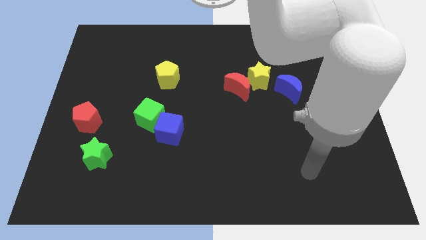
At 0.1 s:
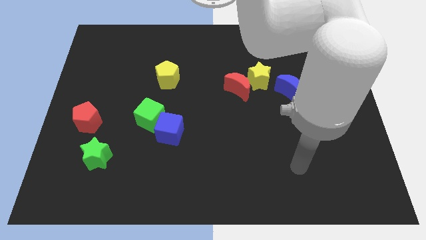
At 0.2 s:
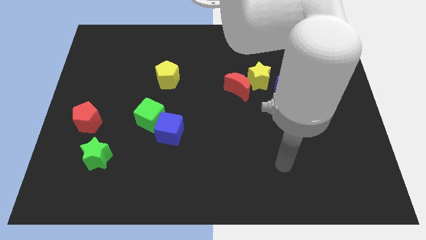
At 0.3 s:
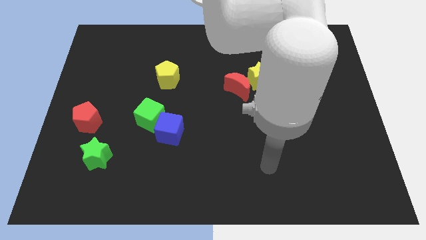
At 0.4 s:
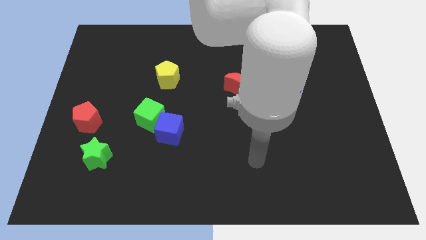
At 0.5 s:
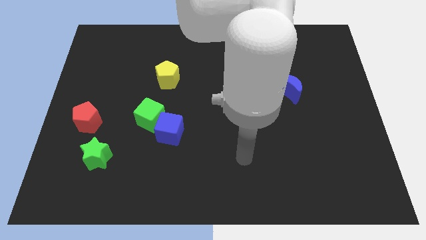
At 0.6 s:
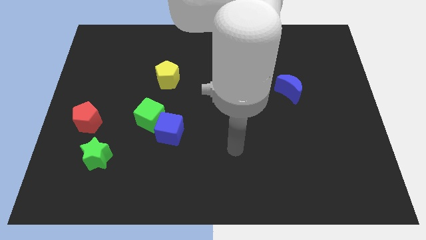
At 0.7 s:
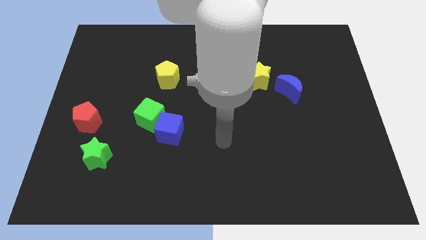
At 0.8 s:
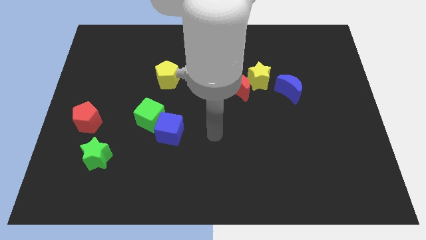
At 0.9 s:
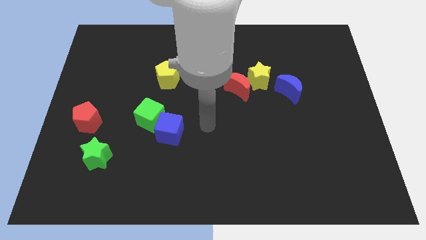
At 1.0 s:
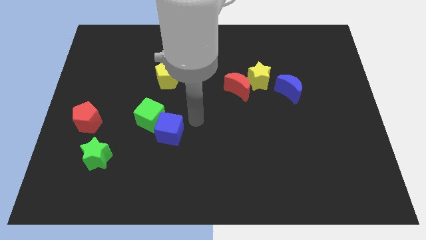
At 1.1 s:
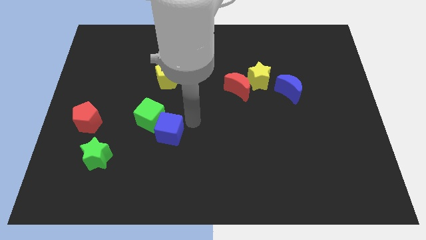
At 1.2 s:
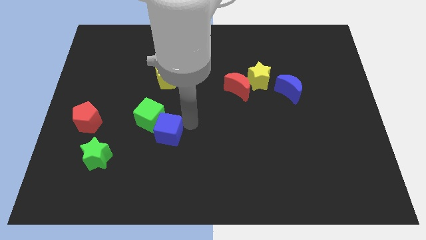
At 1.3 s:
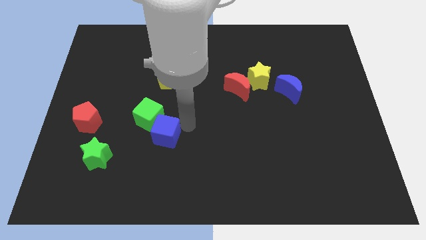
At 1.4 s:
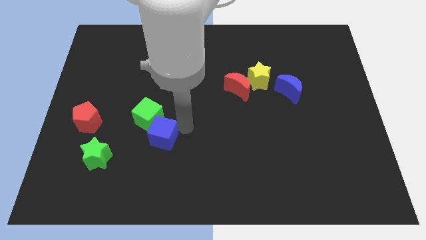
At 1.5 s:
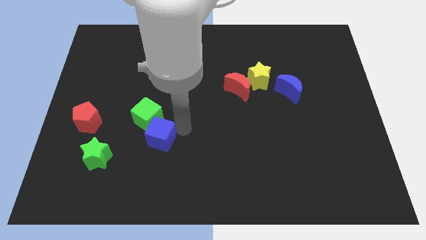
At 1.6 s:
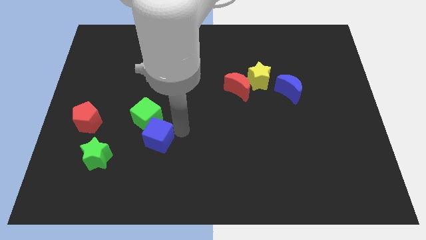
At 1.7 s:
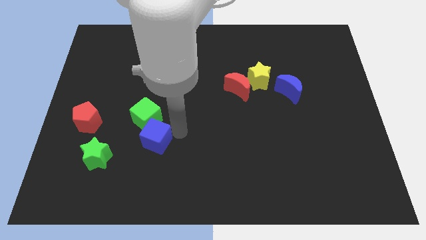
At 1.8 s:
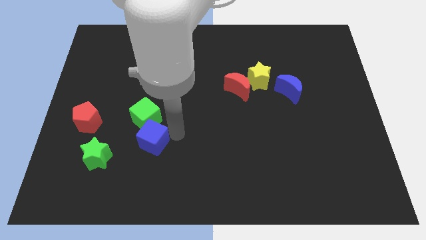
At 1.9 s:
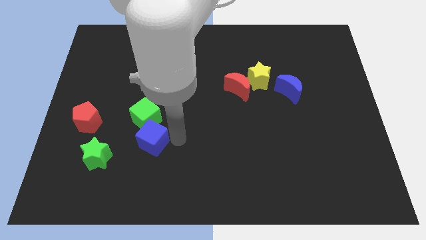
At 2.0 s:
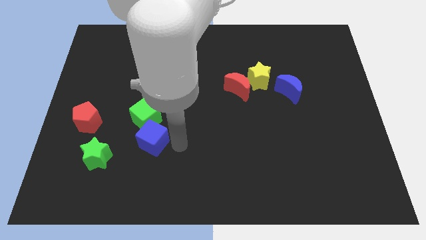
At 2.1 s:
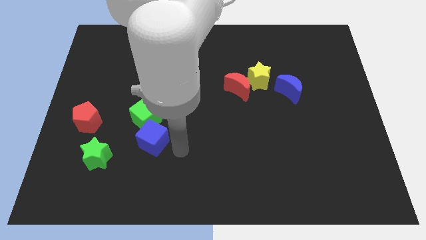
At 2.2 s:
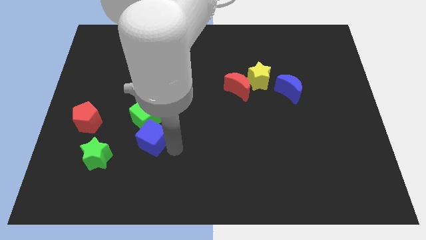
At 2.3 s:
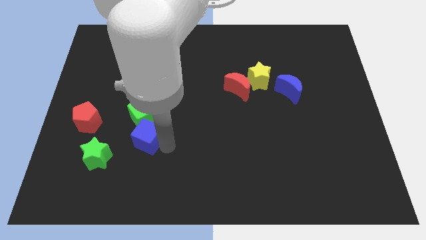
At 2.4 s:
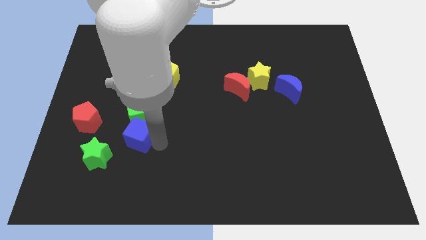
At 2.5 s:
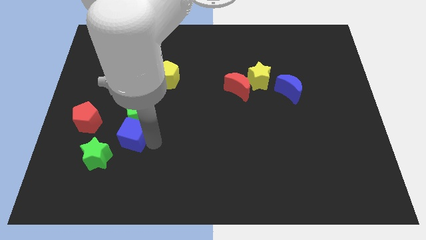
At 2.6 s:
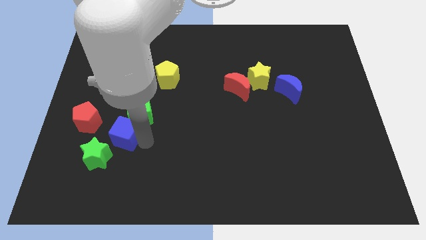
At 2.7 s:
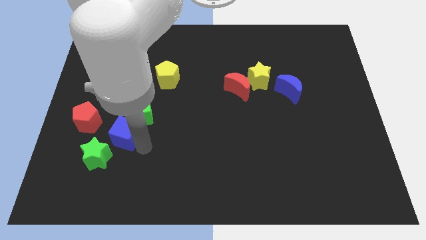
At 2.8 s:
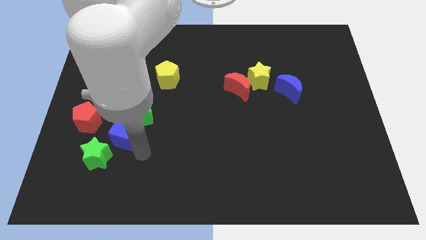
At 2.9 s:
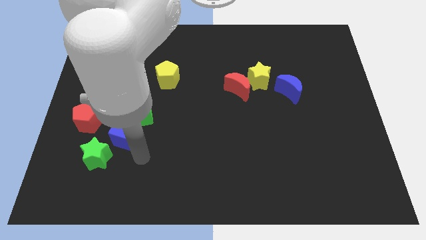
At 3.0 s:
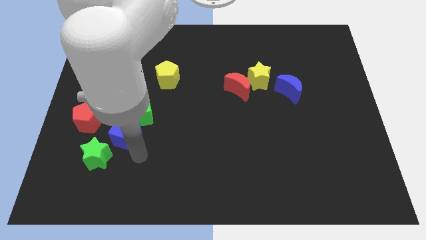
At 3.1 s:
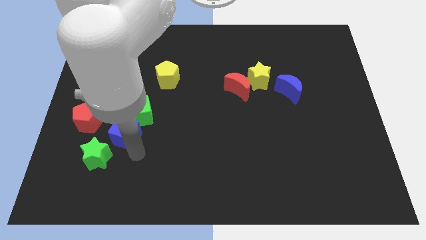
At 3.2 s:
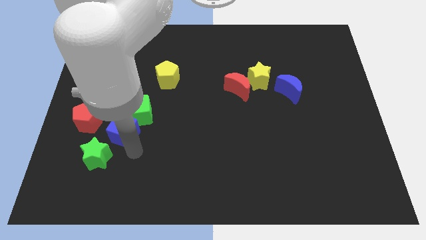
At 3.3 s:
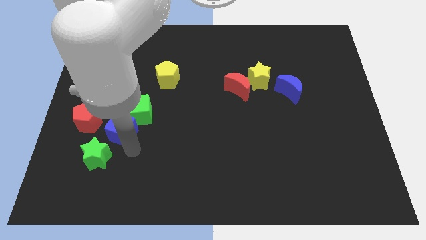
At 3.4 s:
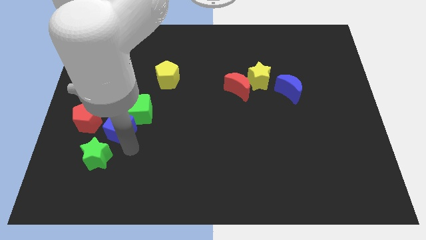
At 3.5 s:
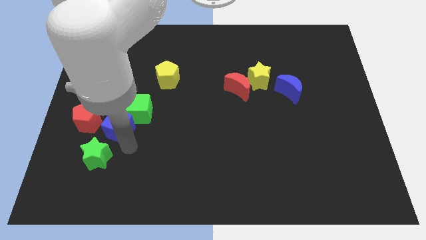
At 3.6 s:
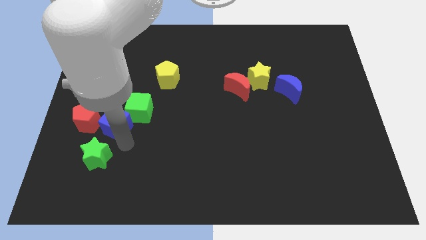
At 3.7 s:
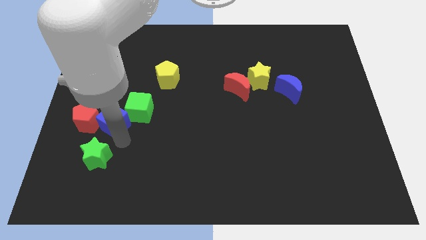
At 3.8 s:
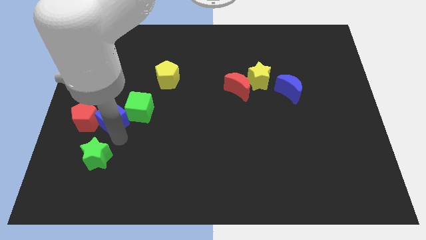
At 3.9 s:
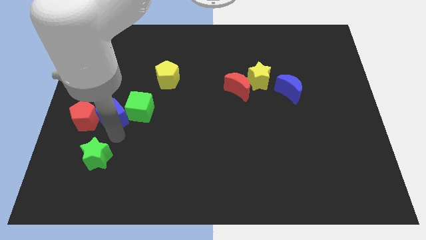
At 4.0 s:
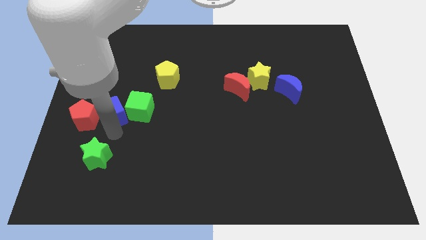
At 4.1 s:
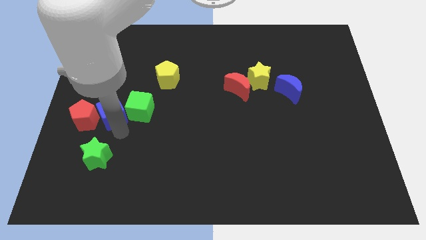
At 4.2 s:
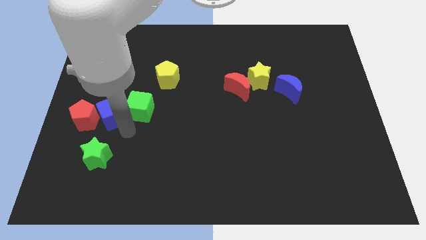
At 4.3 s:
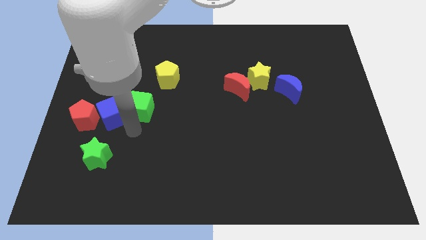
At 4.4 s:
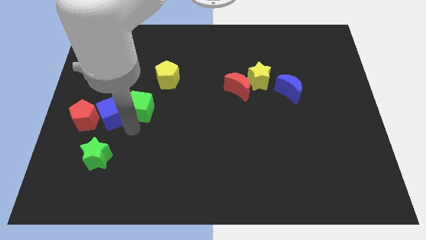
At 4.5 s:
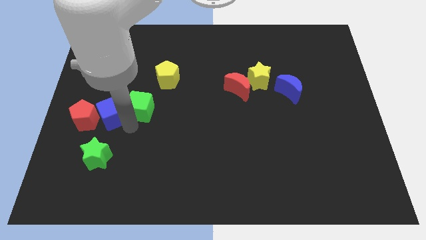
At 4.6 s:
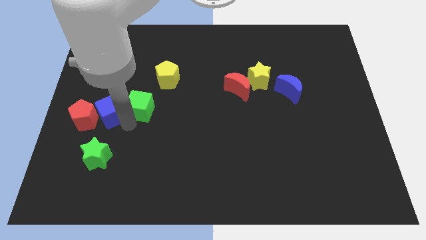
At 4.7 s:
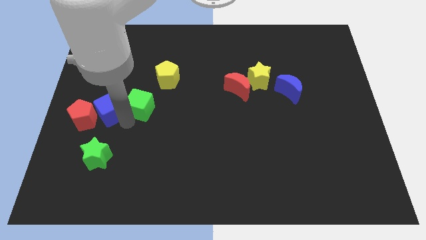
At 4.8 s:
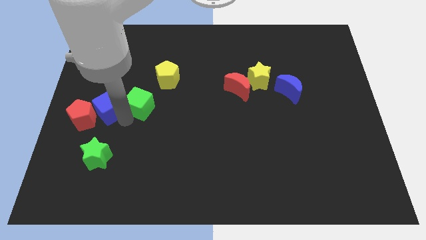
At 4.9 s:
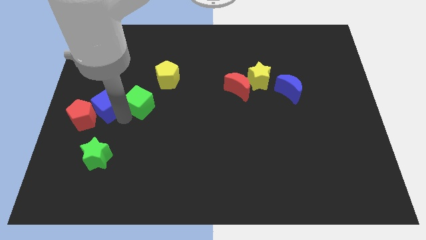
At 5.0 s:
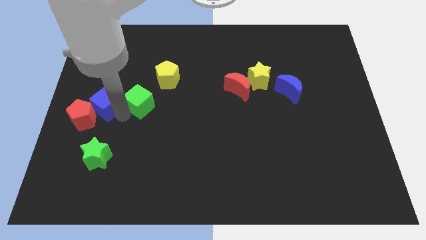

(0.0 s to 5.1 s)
push the blue cube to the center left
